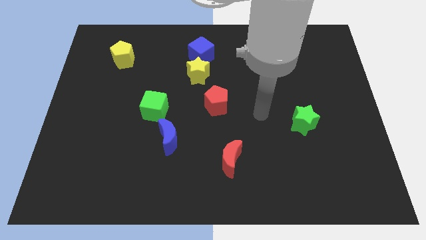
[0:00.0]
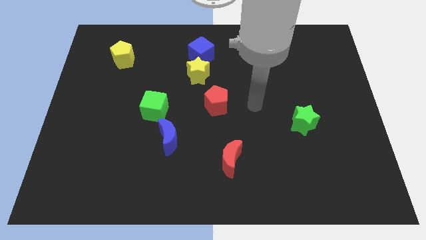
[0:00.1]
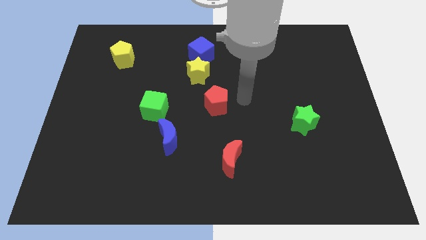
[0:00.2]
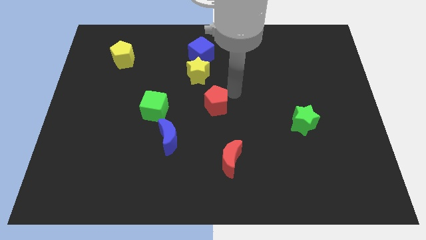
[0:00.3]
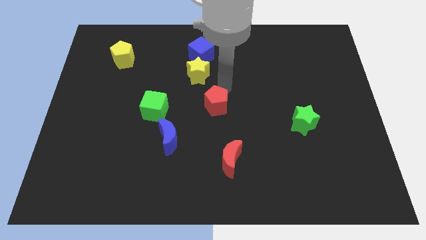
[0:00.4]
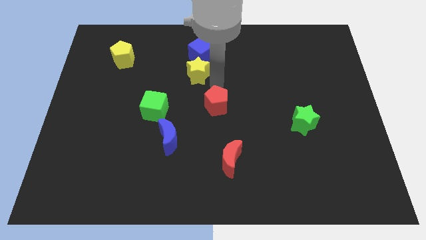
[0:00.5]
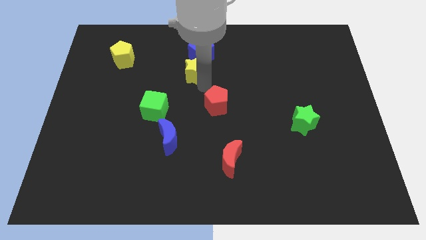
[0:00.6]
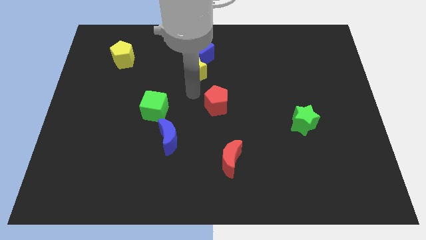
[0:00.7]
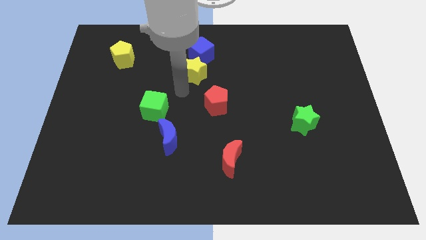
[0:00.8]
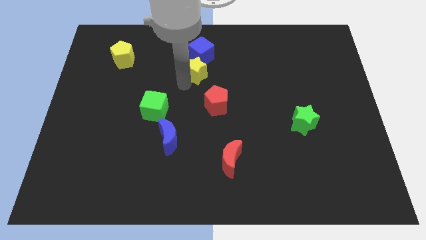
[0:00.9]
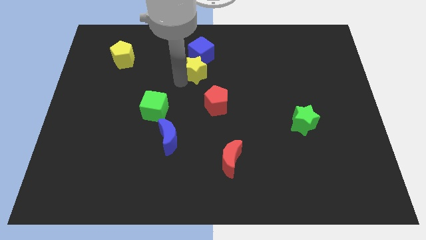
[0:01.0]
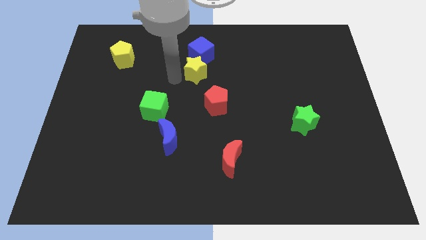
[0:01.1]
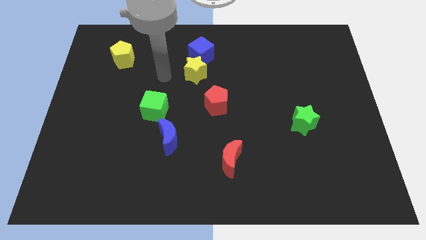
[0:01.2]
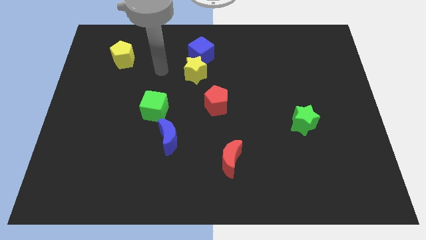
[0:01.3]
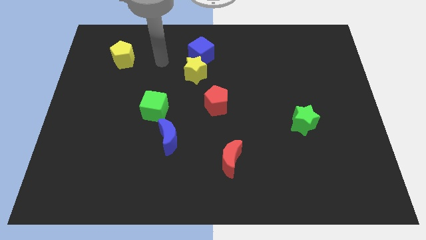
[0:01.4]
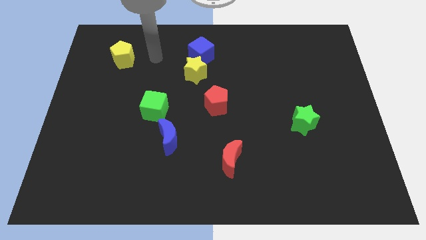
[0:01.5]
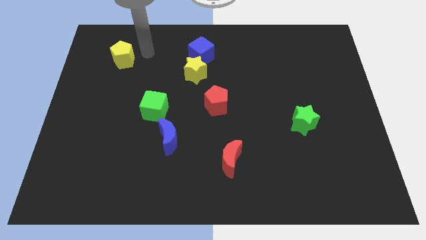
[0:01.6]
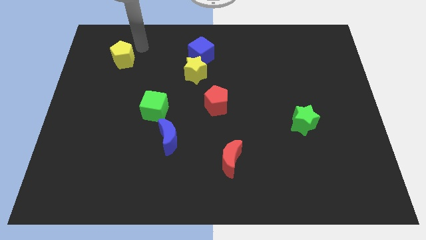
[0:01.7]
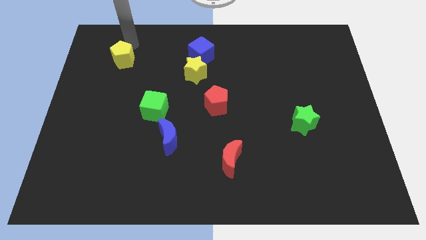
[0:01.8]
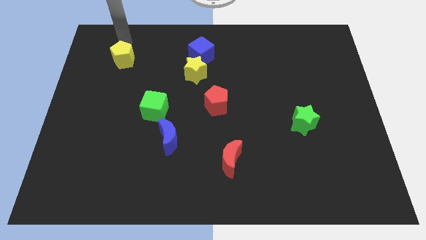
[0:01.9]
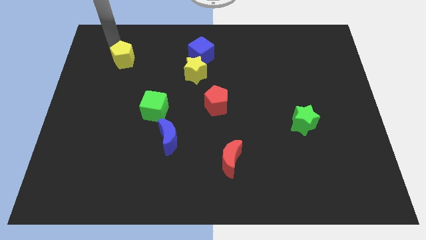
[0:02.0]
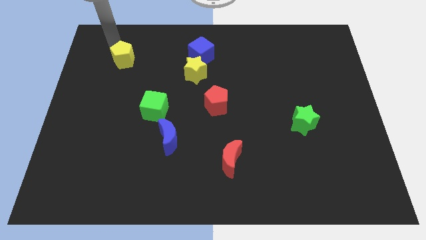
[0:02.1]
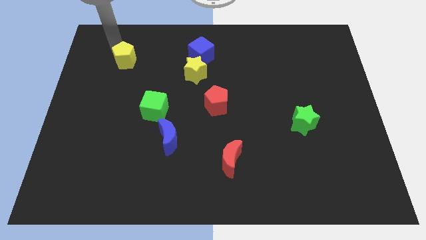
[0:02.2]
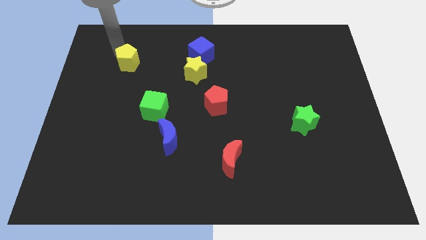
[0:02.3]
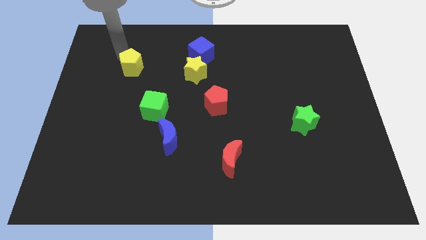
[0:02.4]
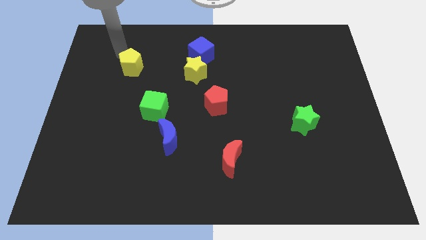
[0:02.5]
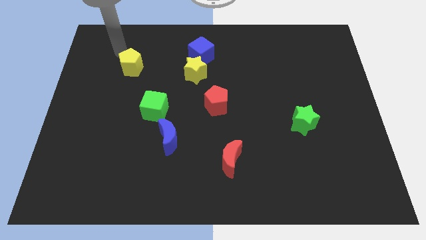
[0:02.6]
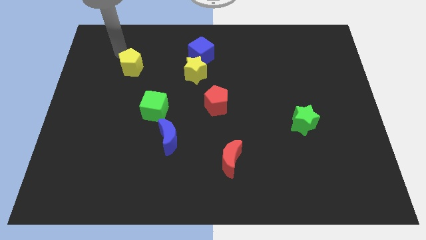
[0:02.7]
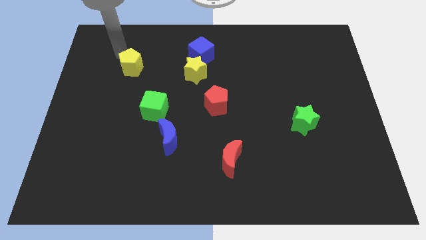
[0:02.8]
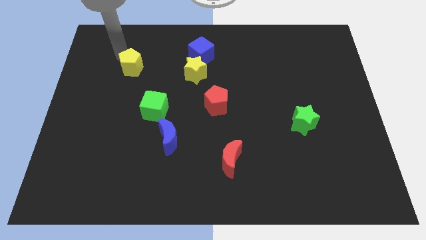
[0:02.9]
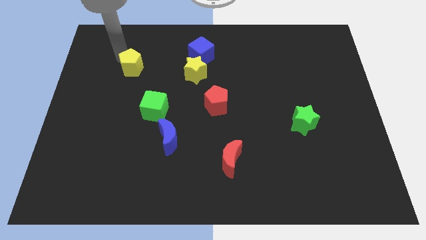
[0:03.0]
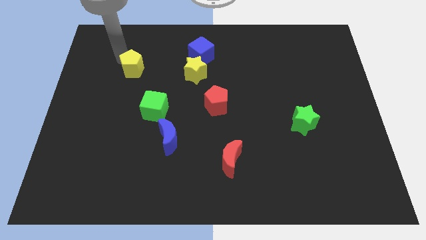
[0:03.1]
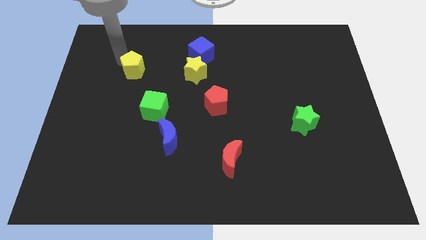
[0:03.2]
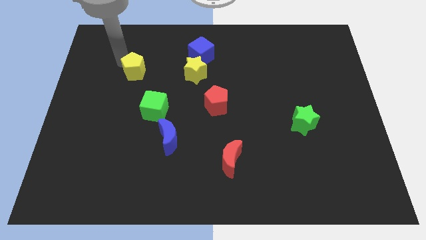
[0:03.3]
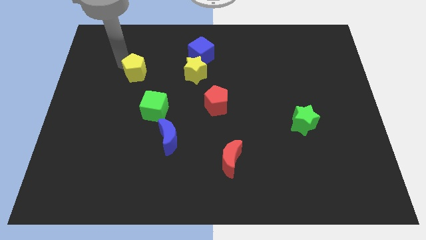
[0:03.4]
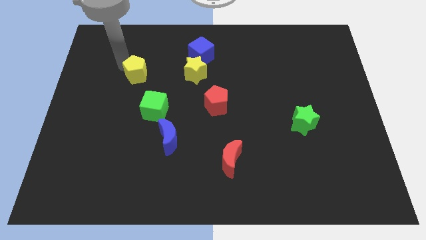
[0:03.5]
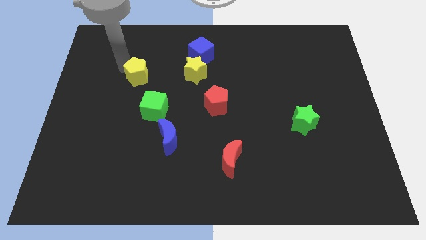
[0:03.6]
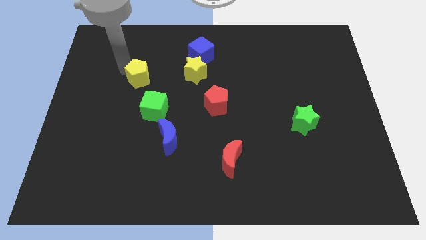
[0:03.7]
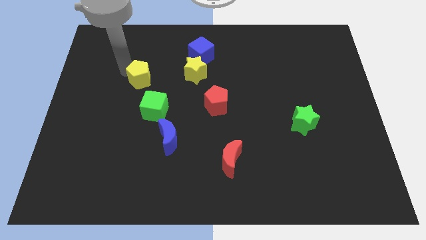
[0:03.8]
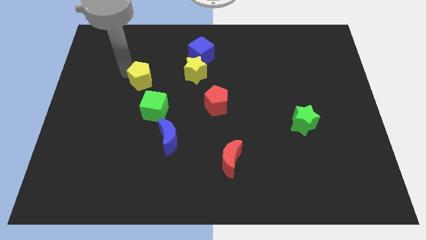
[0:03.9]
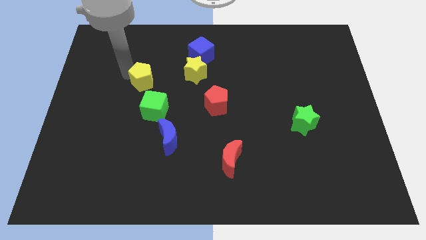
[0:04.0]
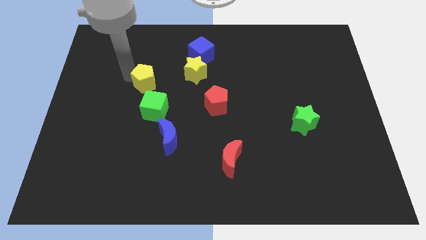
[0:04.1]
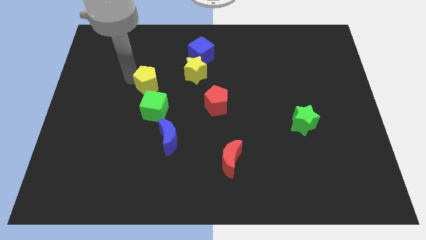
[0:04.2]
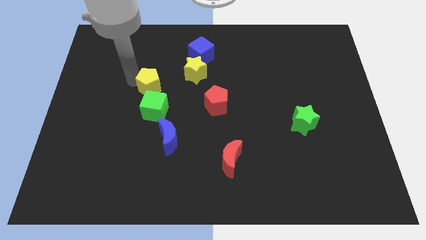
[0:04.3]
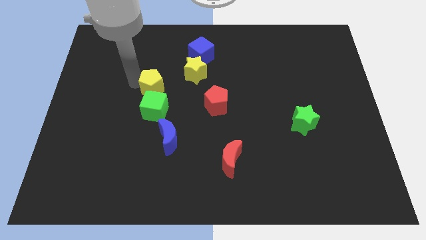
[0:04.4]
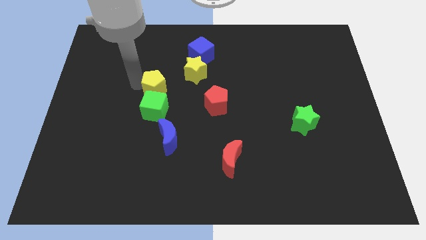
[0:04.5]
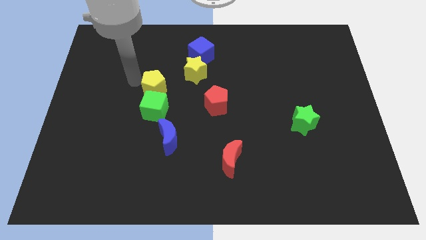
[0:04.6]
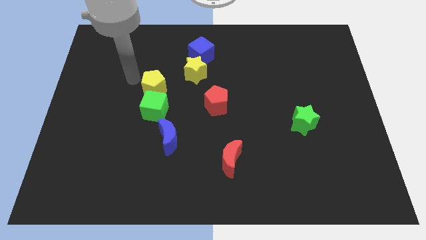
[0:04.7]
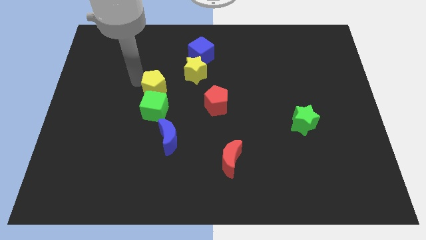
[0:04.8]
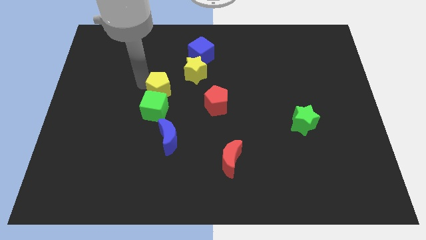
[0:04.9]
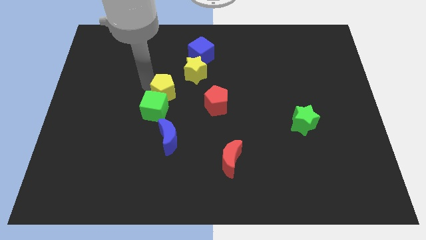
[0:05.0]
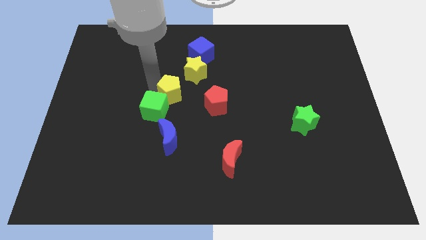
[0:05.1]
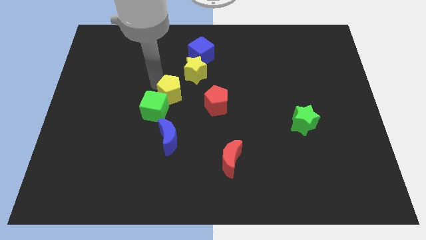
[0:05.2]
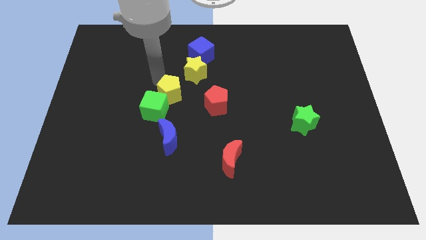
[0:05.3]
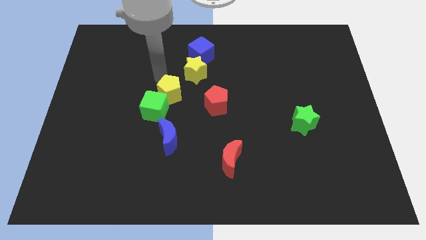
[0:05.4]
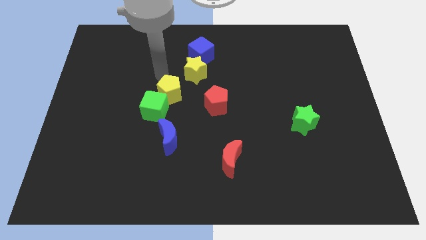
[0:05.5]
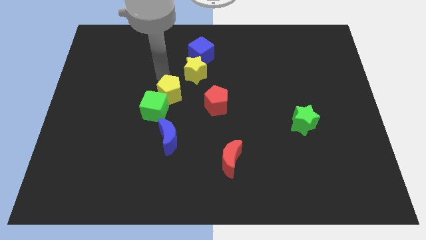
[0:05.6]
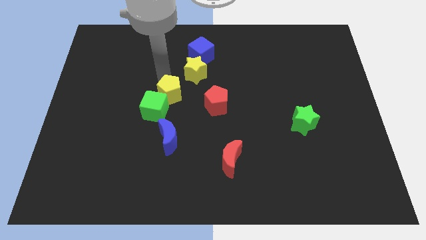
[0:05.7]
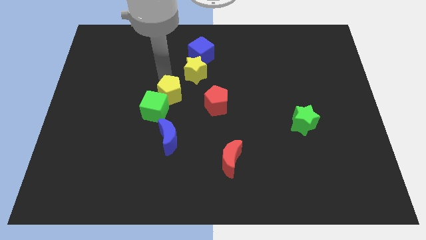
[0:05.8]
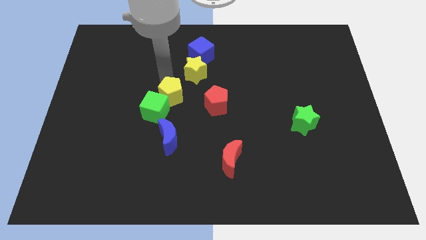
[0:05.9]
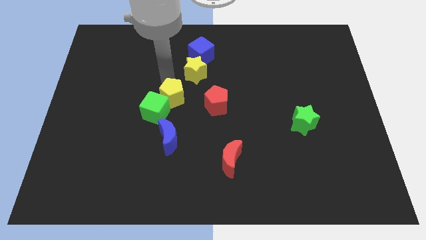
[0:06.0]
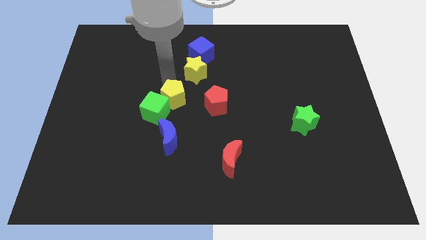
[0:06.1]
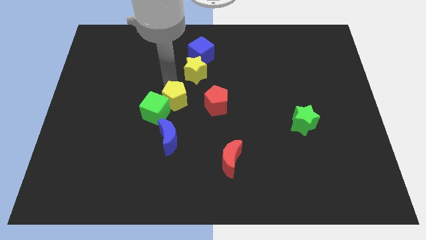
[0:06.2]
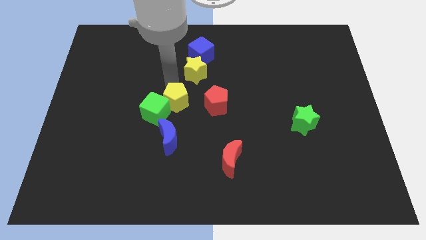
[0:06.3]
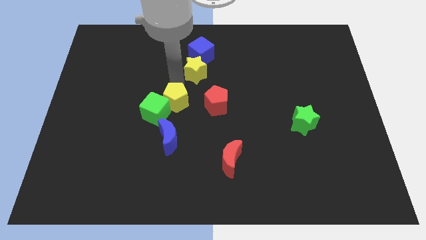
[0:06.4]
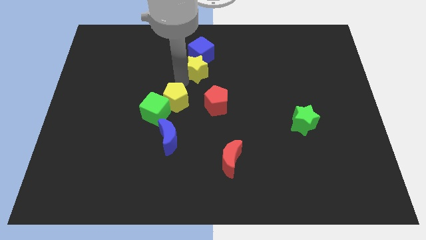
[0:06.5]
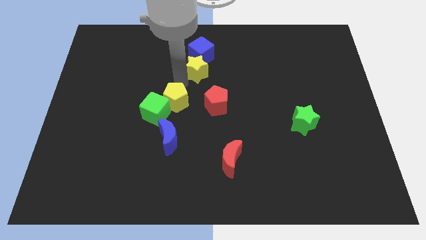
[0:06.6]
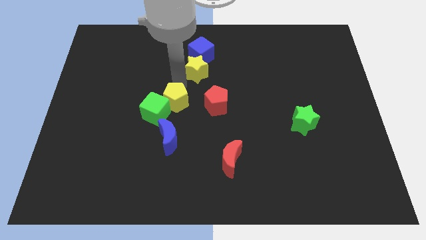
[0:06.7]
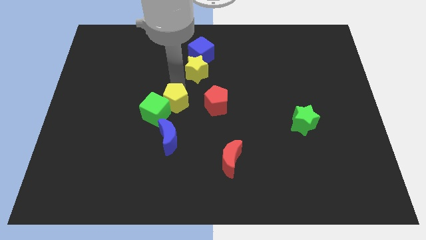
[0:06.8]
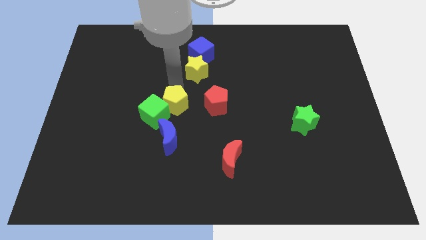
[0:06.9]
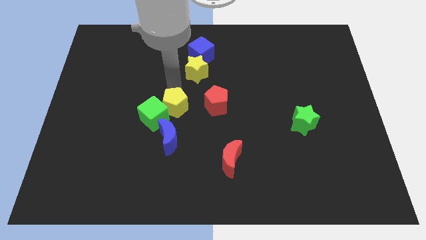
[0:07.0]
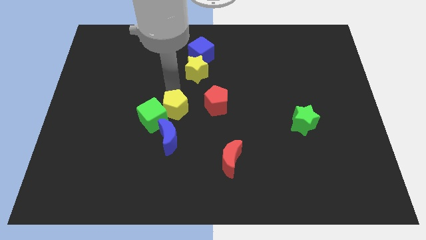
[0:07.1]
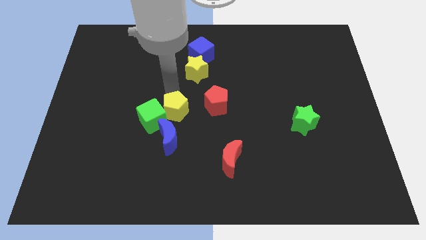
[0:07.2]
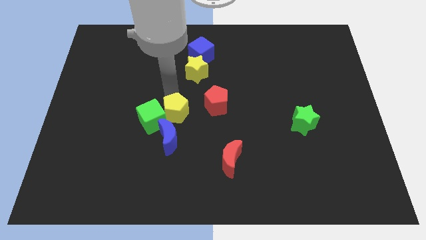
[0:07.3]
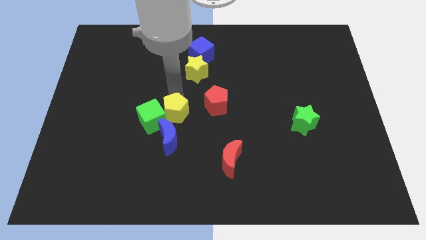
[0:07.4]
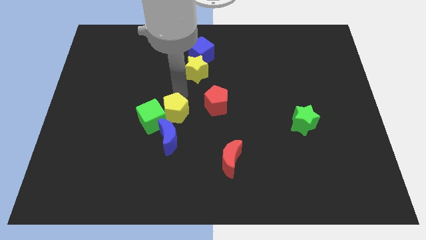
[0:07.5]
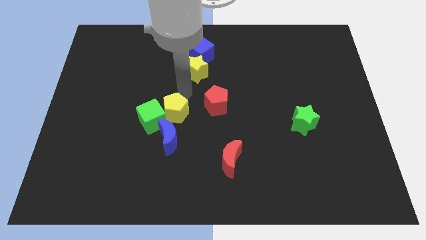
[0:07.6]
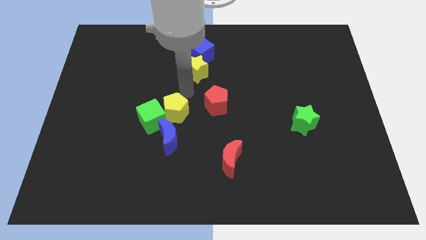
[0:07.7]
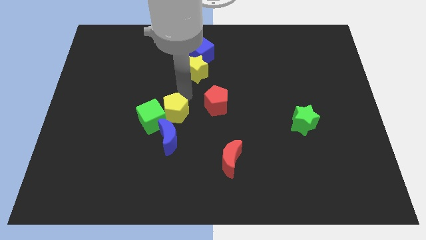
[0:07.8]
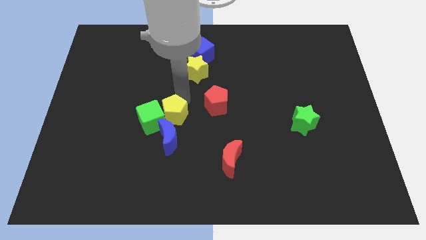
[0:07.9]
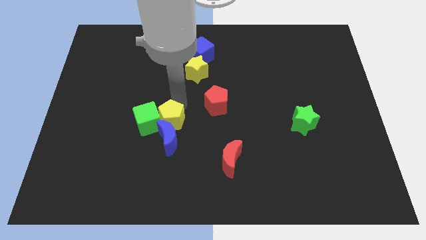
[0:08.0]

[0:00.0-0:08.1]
push the yellow pentagon to the blue moon
